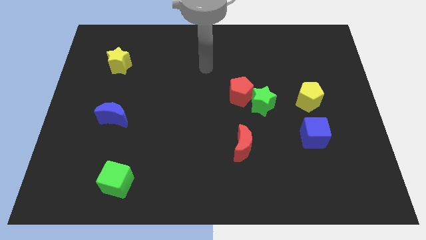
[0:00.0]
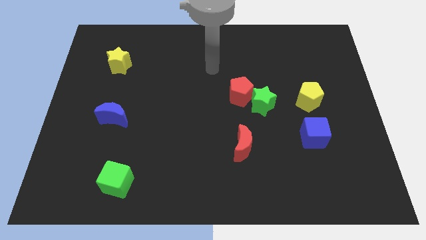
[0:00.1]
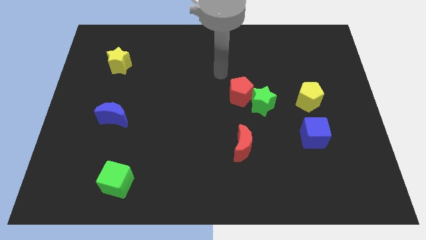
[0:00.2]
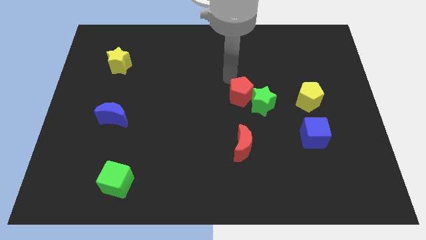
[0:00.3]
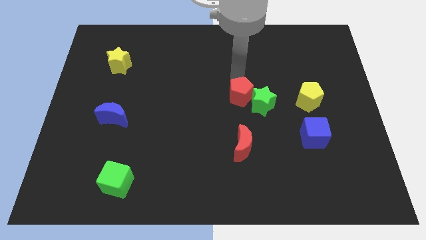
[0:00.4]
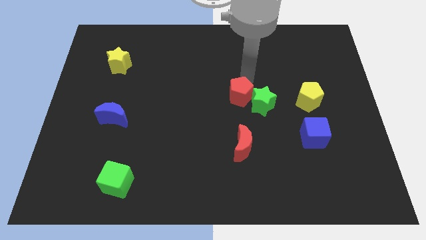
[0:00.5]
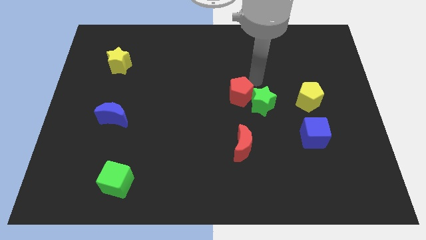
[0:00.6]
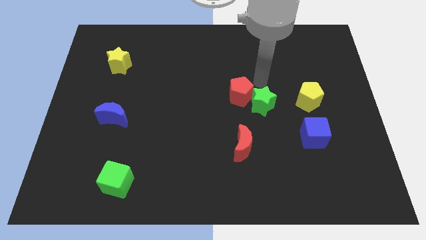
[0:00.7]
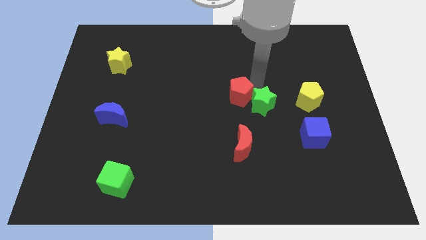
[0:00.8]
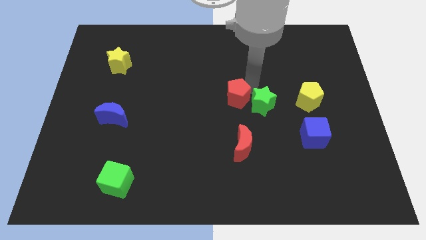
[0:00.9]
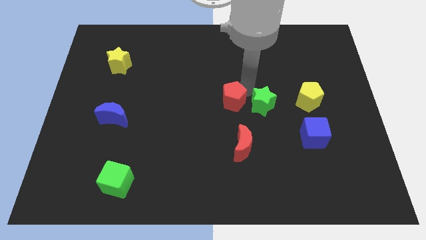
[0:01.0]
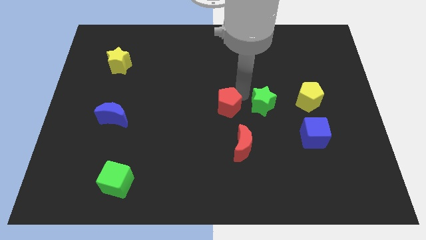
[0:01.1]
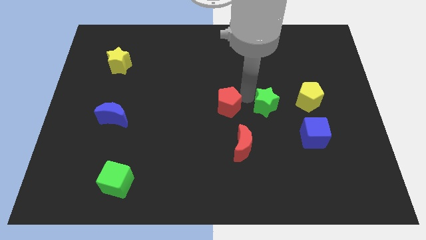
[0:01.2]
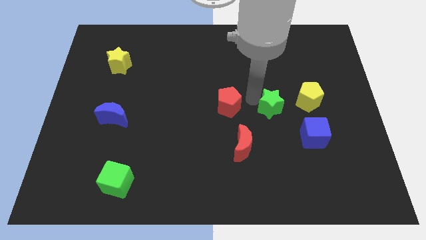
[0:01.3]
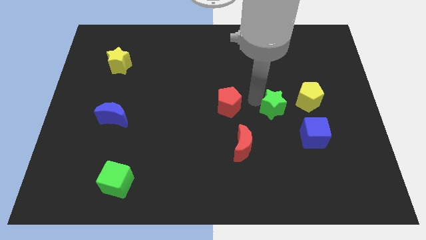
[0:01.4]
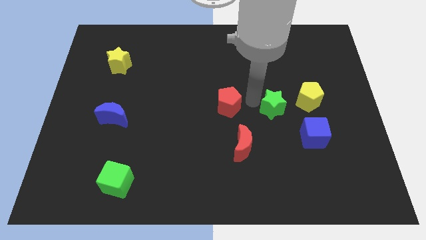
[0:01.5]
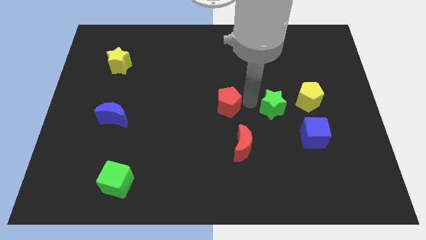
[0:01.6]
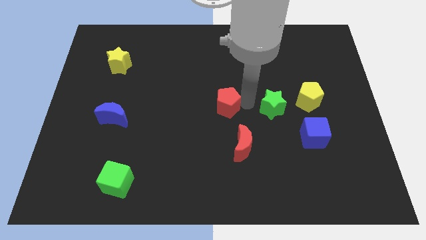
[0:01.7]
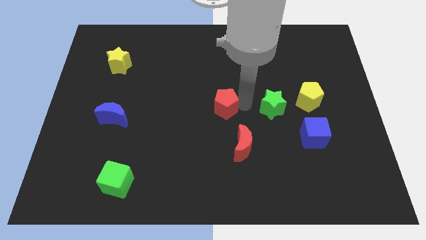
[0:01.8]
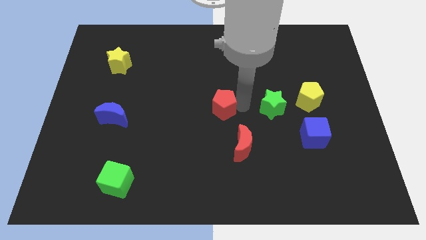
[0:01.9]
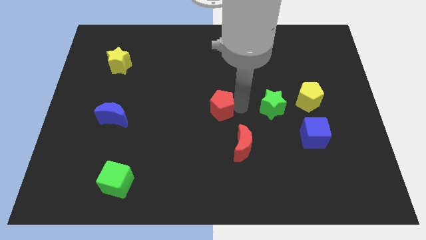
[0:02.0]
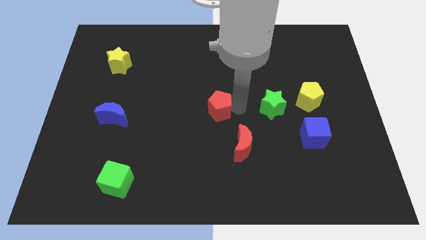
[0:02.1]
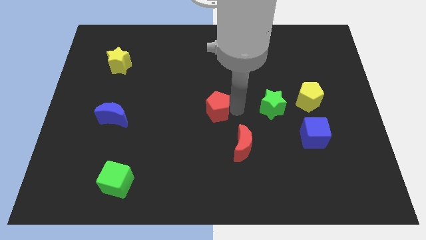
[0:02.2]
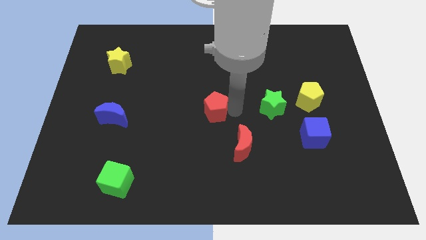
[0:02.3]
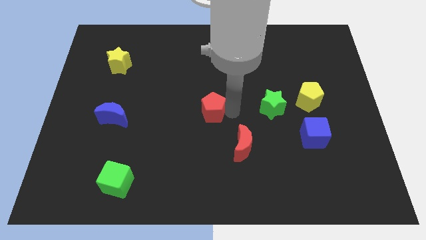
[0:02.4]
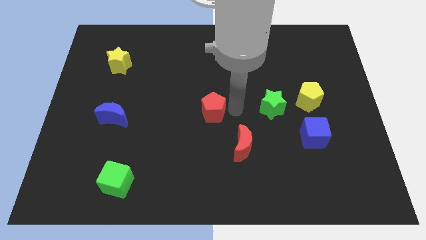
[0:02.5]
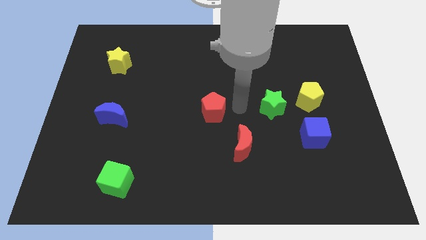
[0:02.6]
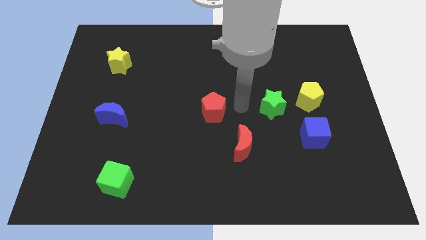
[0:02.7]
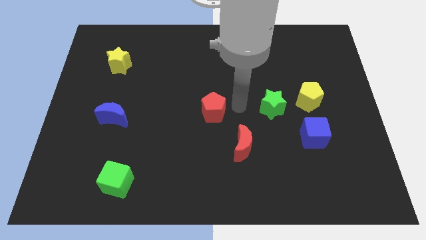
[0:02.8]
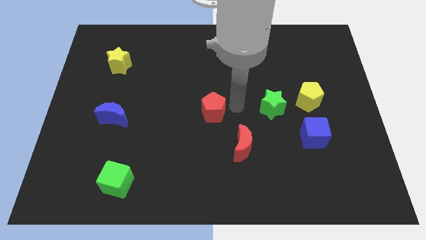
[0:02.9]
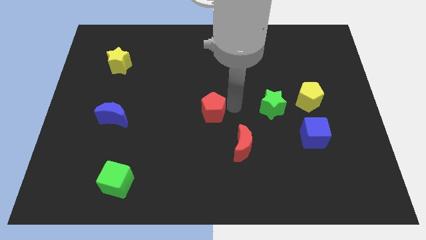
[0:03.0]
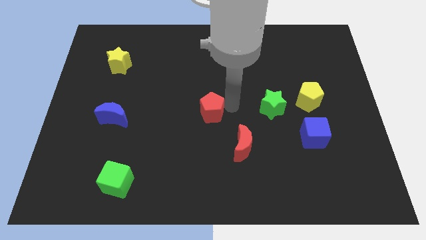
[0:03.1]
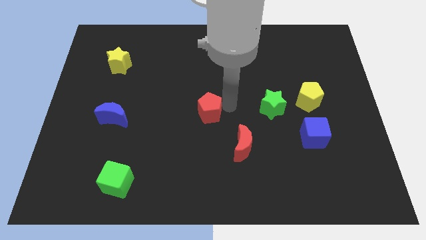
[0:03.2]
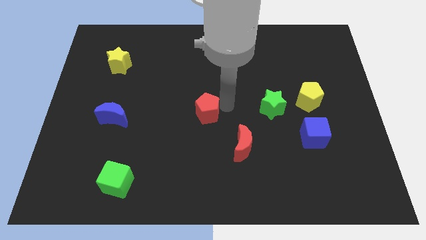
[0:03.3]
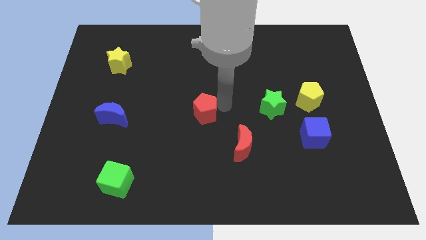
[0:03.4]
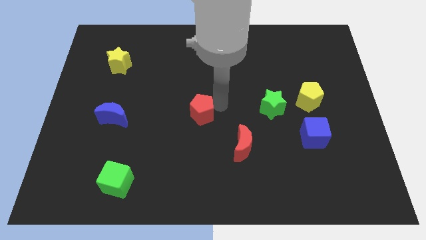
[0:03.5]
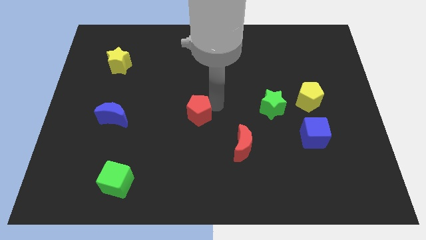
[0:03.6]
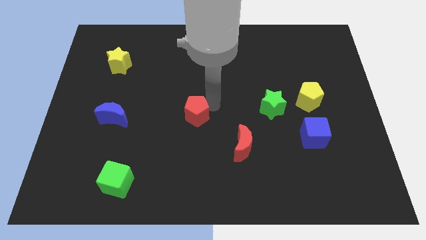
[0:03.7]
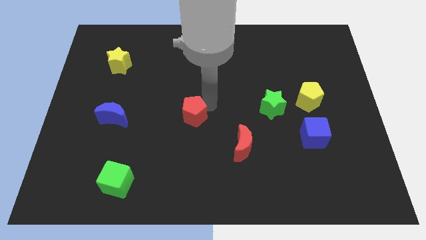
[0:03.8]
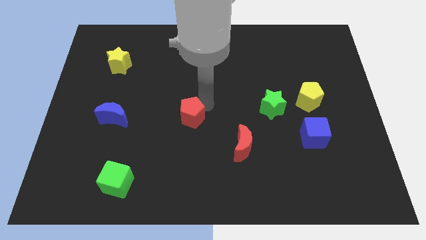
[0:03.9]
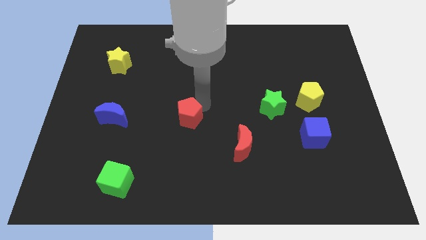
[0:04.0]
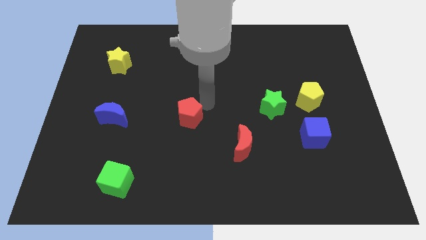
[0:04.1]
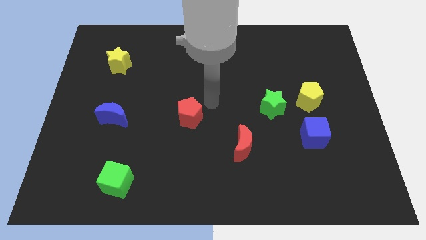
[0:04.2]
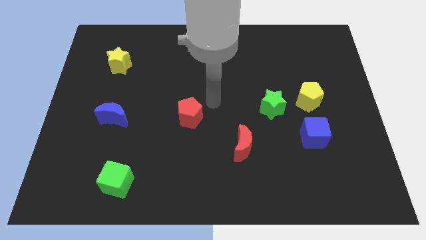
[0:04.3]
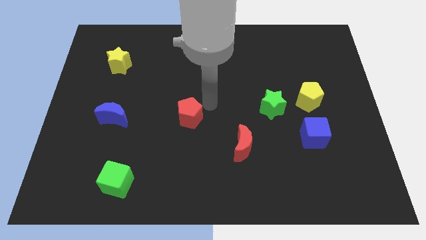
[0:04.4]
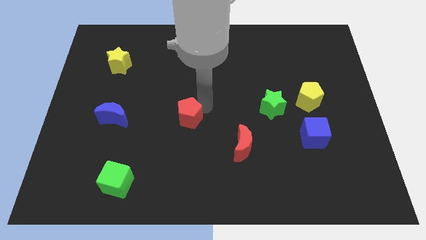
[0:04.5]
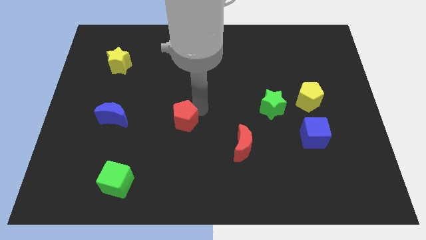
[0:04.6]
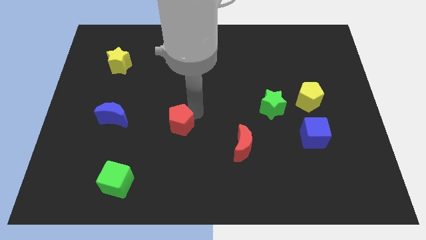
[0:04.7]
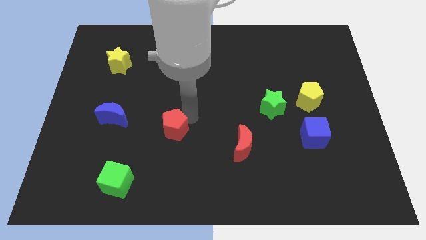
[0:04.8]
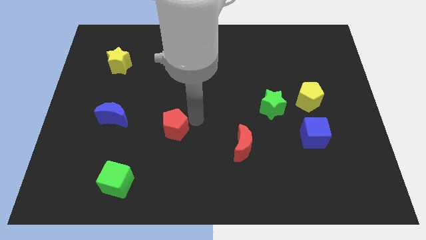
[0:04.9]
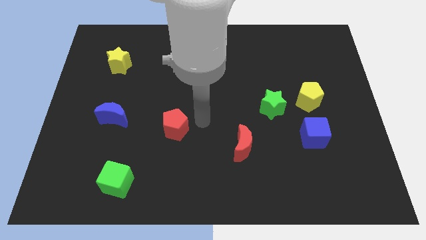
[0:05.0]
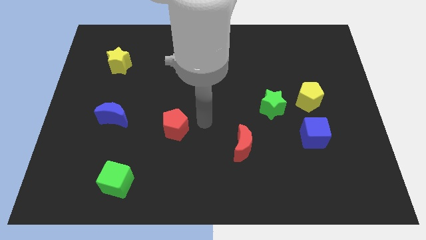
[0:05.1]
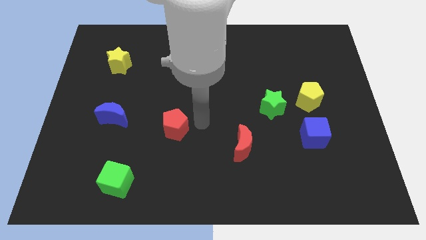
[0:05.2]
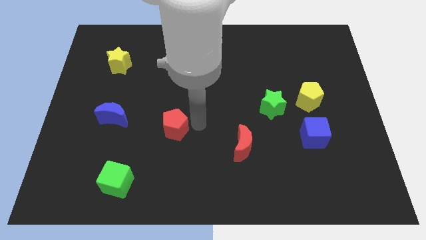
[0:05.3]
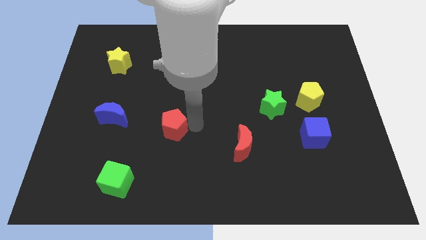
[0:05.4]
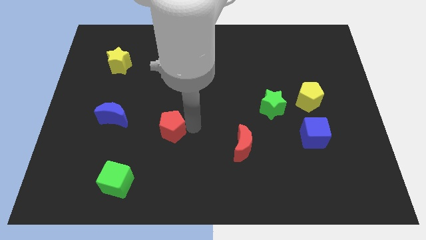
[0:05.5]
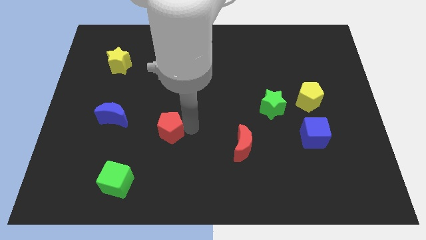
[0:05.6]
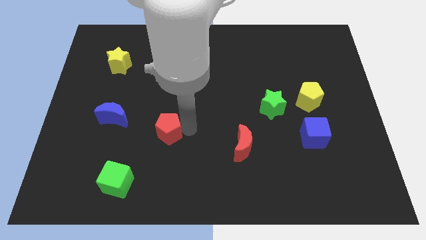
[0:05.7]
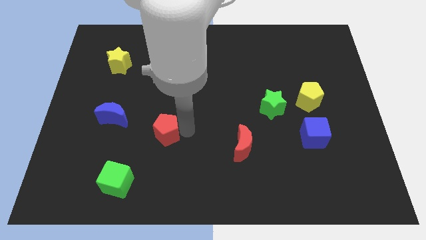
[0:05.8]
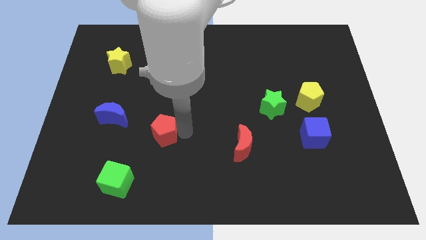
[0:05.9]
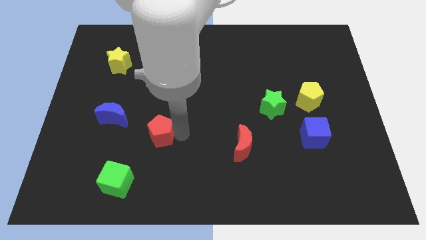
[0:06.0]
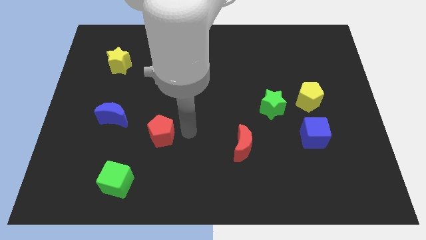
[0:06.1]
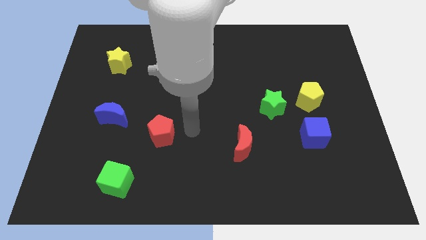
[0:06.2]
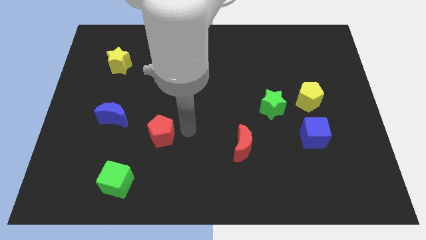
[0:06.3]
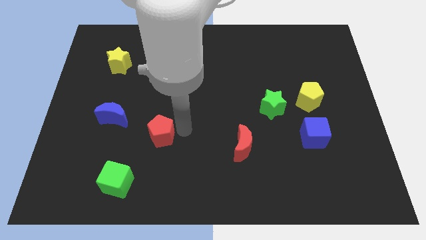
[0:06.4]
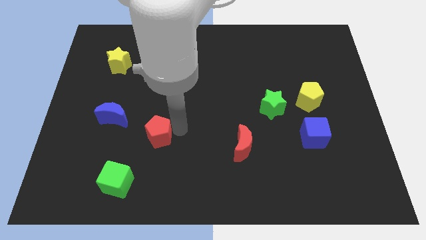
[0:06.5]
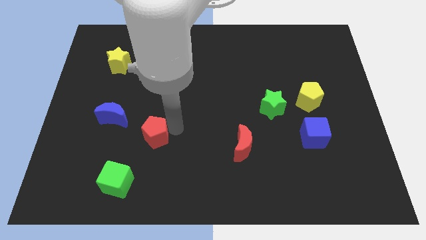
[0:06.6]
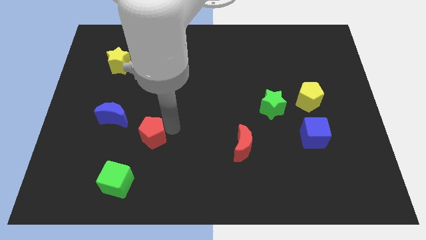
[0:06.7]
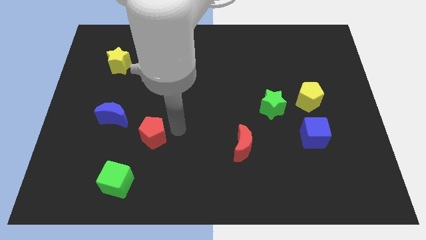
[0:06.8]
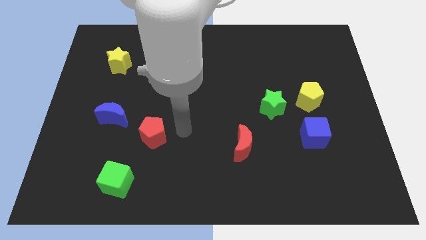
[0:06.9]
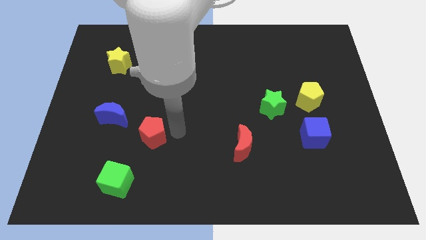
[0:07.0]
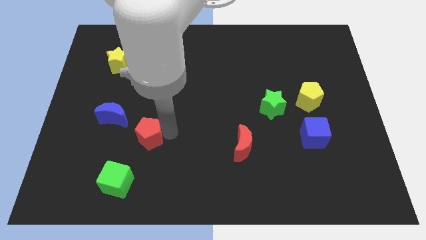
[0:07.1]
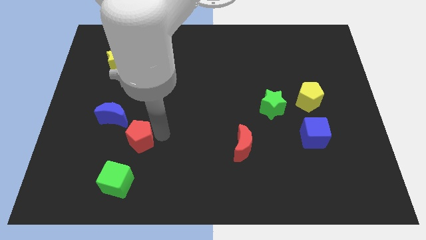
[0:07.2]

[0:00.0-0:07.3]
move the red pentagon to the top side of the green cube

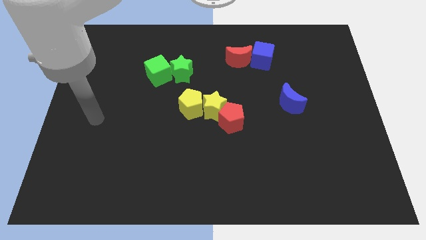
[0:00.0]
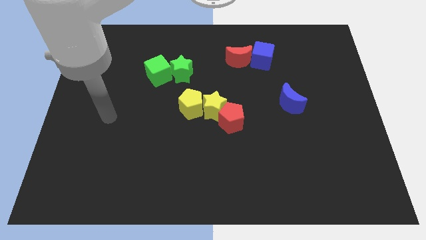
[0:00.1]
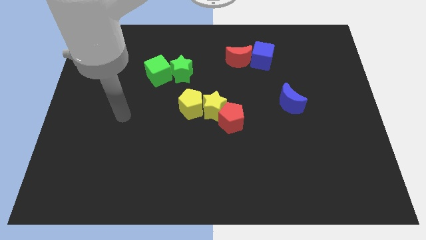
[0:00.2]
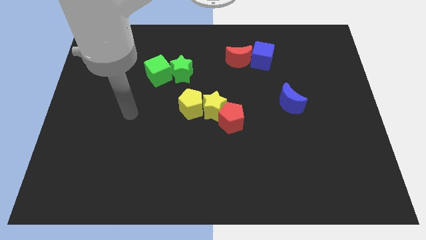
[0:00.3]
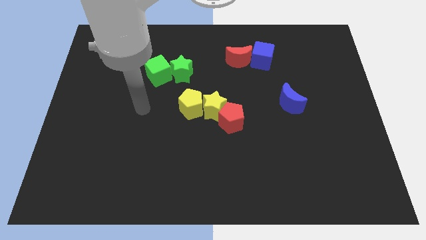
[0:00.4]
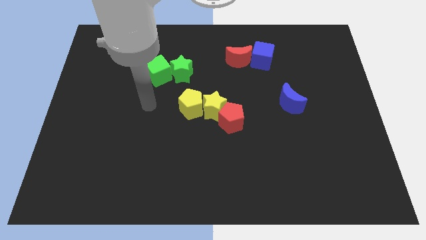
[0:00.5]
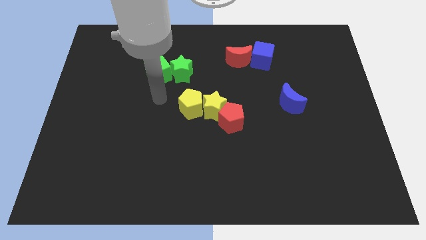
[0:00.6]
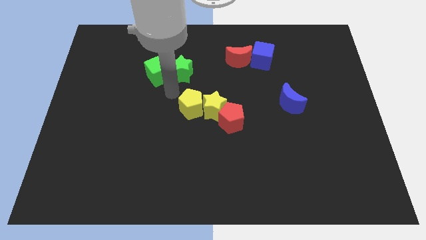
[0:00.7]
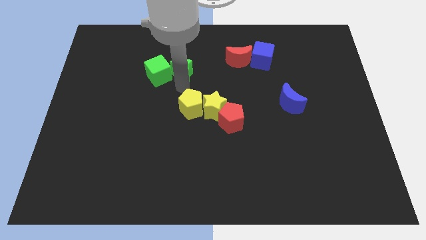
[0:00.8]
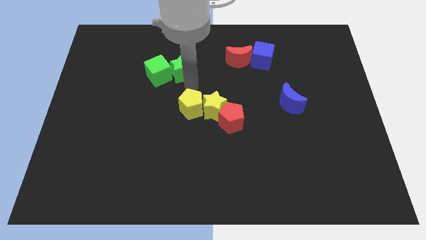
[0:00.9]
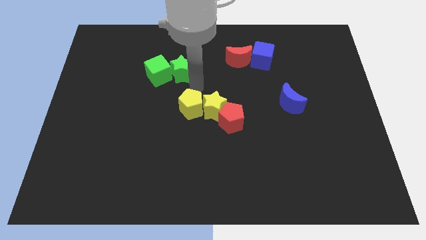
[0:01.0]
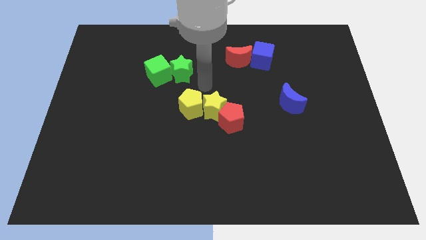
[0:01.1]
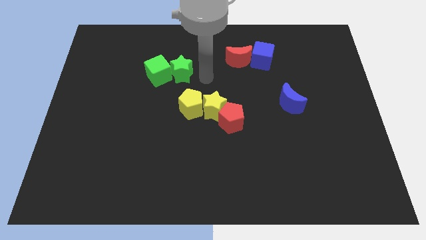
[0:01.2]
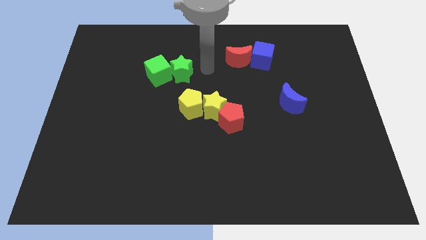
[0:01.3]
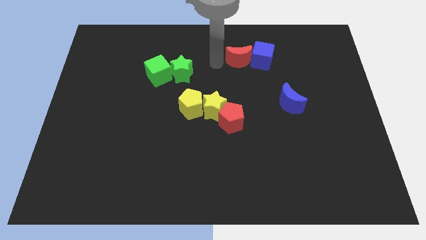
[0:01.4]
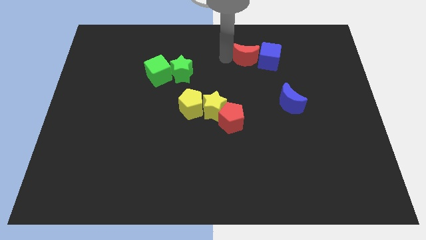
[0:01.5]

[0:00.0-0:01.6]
move the blue cube above the blue moon
